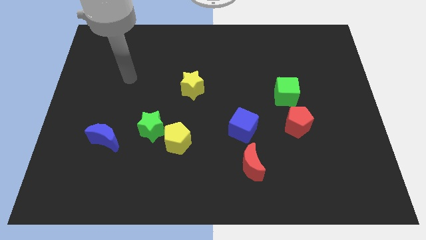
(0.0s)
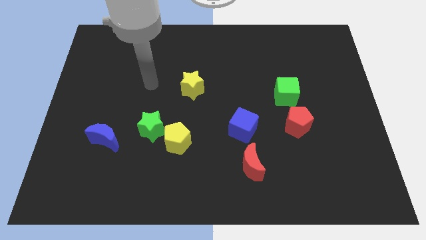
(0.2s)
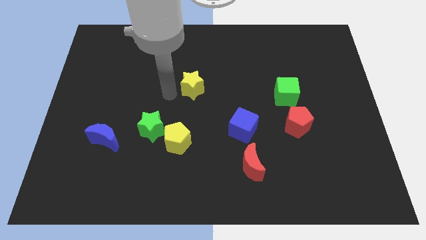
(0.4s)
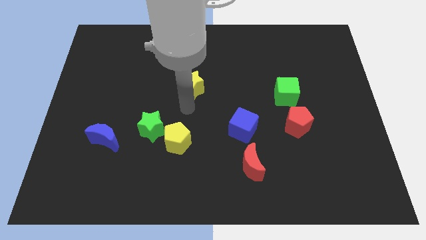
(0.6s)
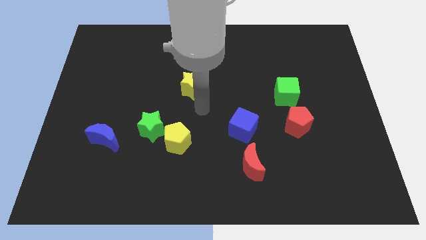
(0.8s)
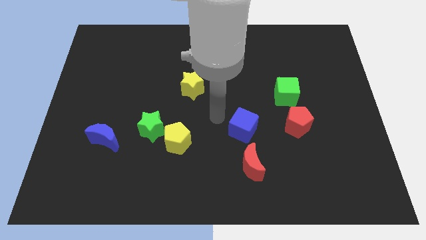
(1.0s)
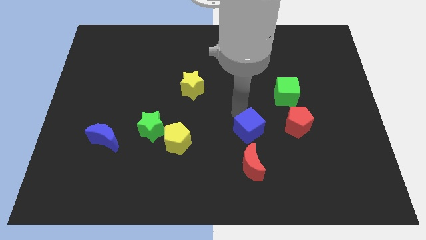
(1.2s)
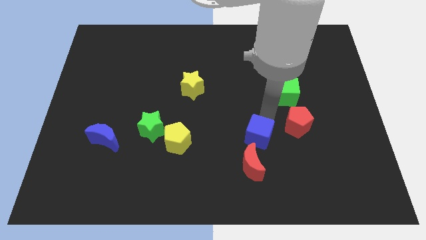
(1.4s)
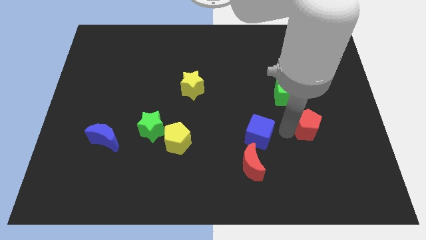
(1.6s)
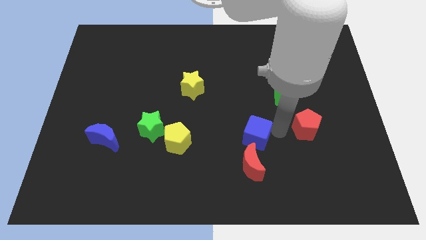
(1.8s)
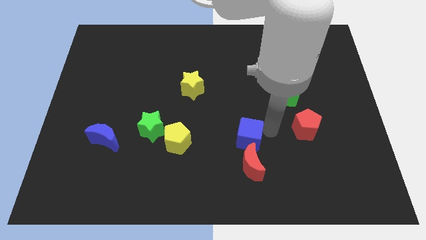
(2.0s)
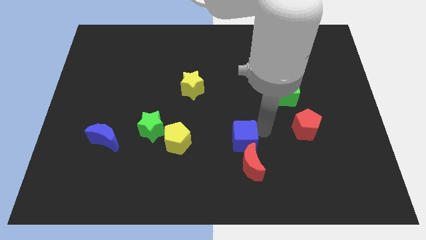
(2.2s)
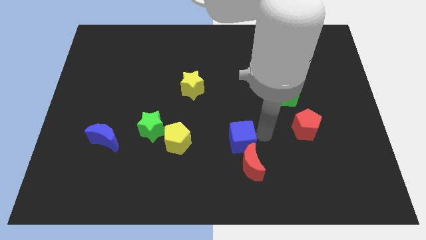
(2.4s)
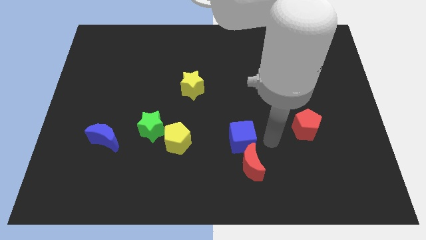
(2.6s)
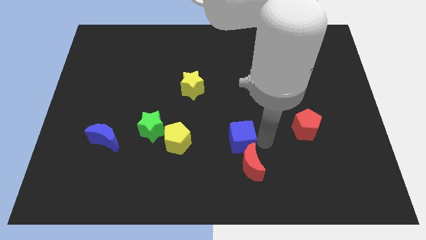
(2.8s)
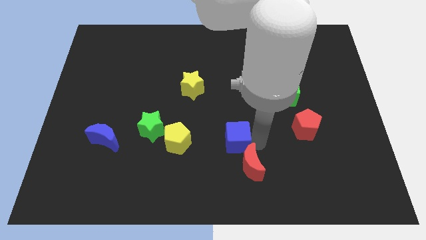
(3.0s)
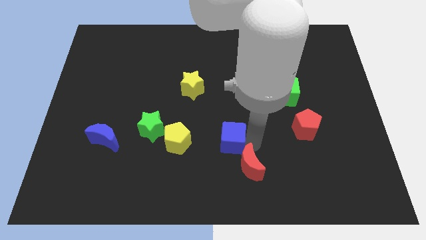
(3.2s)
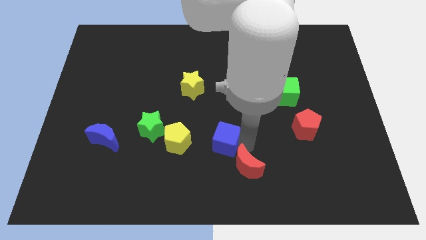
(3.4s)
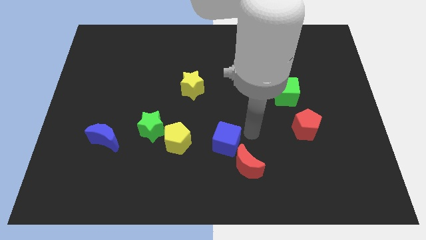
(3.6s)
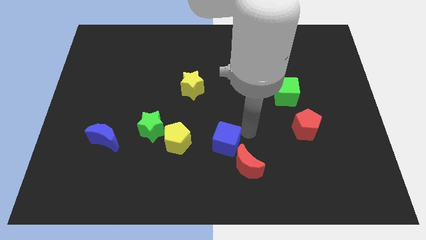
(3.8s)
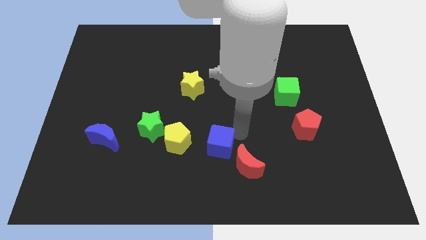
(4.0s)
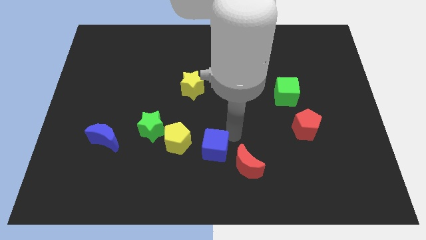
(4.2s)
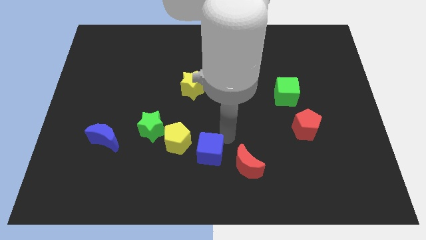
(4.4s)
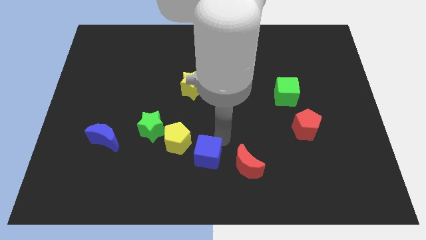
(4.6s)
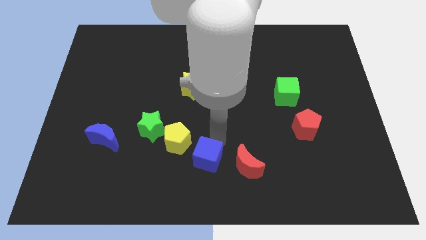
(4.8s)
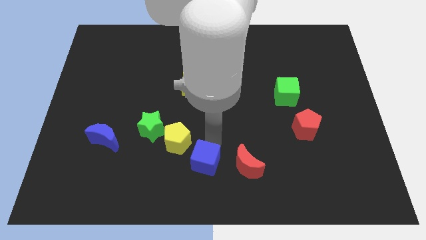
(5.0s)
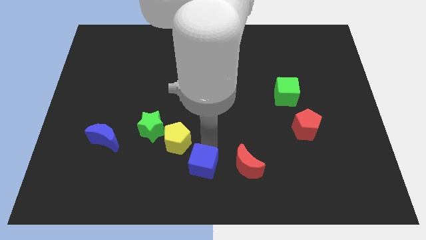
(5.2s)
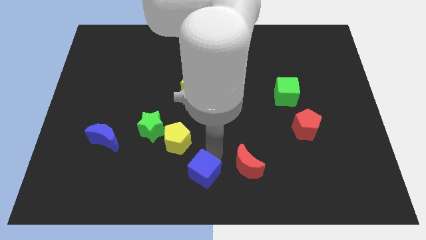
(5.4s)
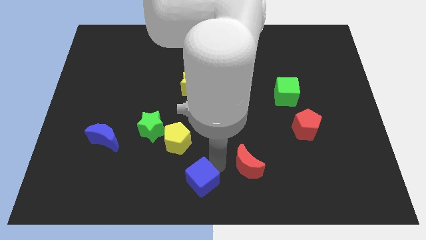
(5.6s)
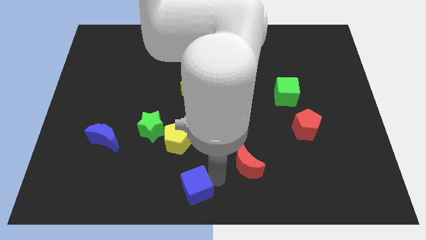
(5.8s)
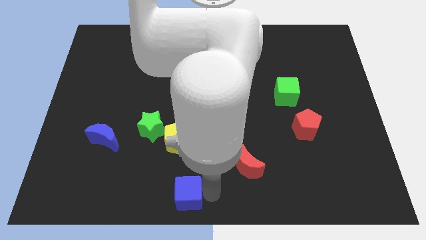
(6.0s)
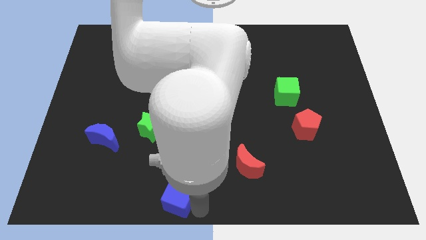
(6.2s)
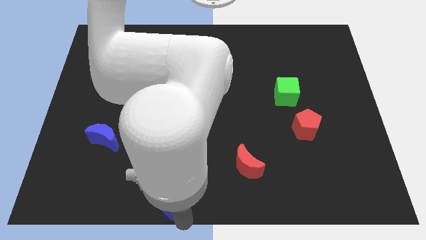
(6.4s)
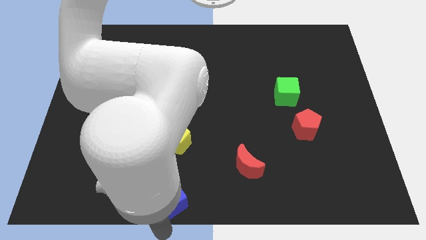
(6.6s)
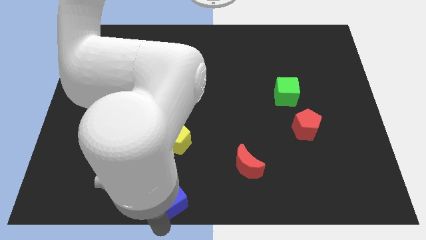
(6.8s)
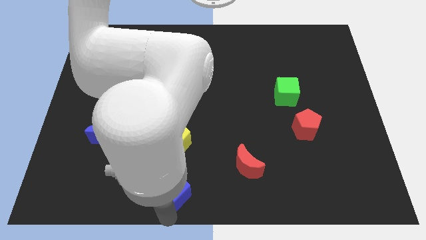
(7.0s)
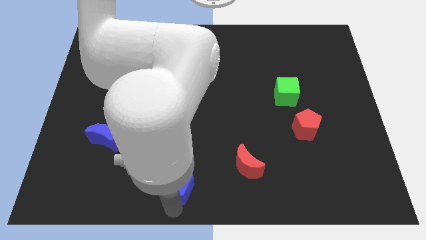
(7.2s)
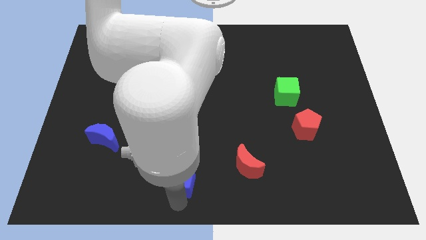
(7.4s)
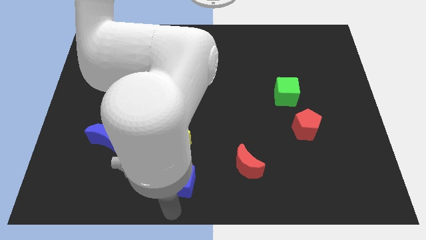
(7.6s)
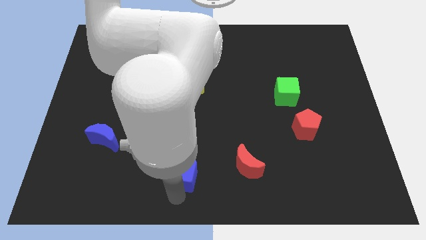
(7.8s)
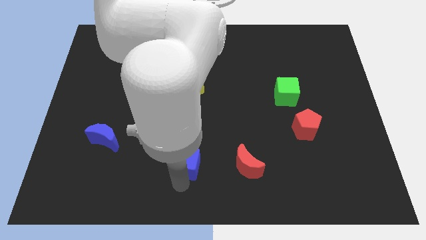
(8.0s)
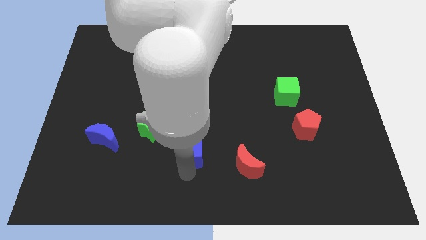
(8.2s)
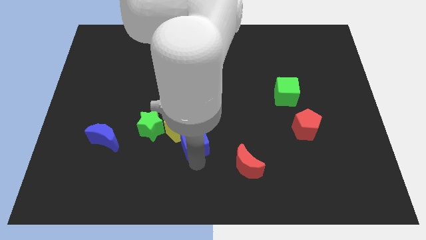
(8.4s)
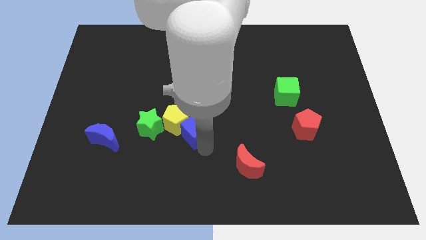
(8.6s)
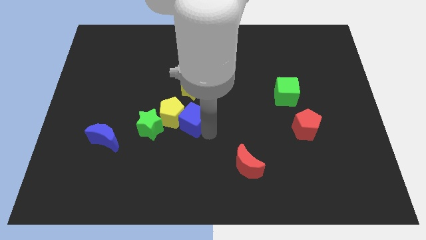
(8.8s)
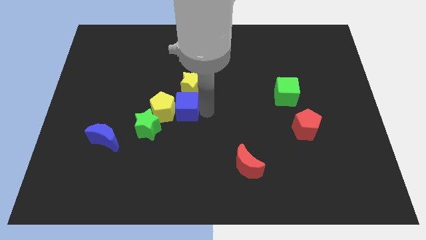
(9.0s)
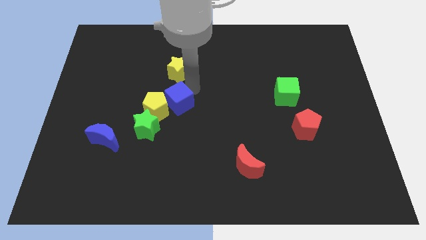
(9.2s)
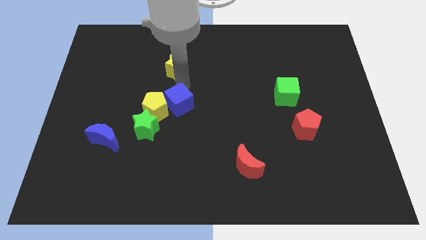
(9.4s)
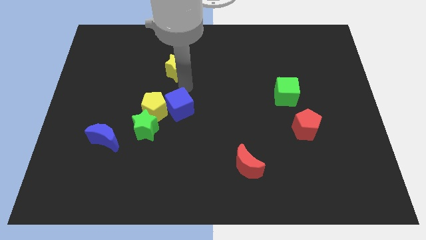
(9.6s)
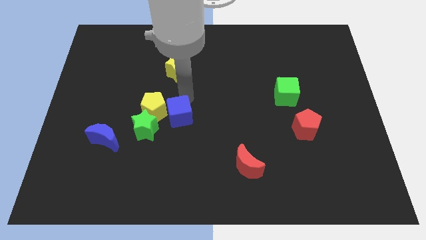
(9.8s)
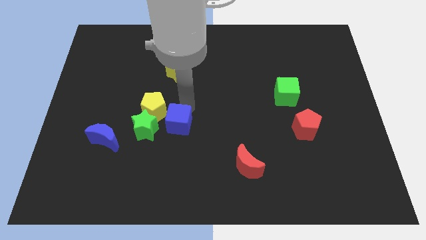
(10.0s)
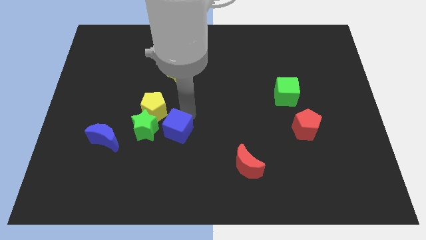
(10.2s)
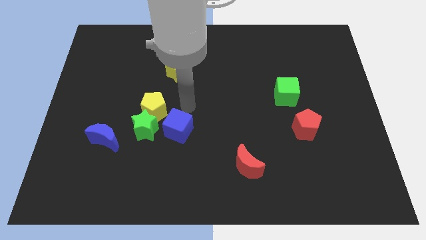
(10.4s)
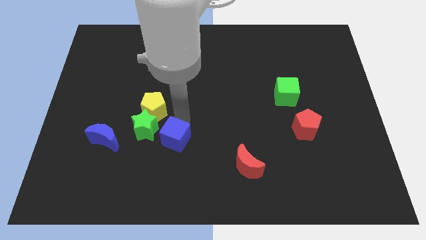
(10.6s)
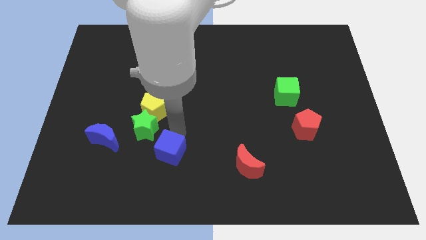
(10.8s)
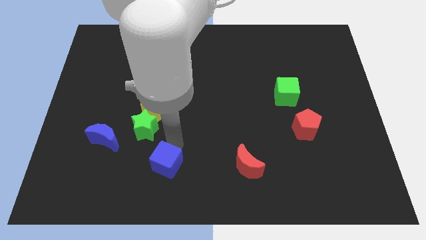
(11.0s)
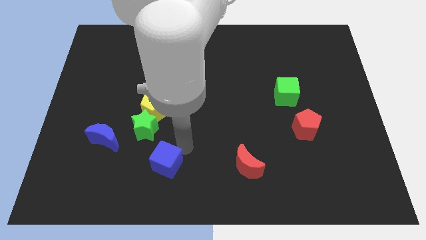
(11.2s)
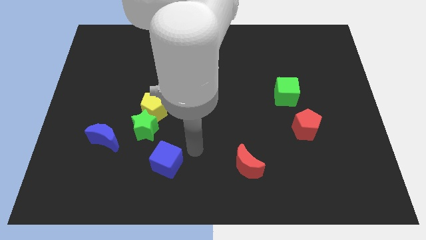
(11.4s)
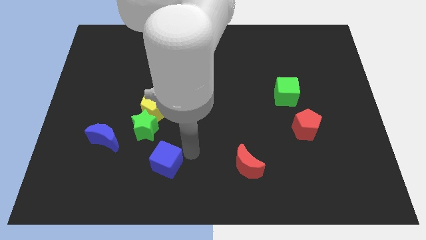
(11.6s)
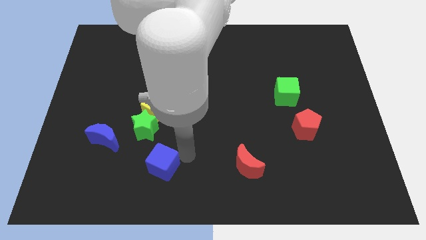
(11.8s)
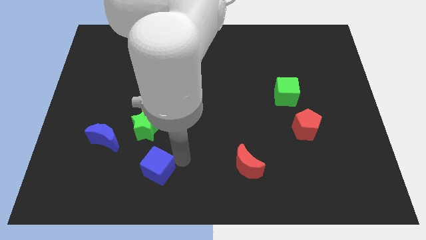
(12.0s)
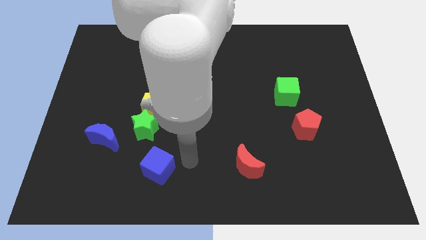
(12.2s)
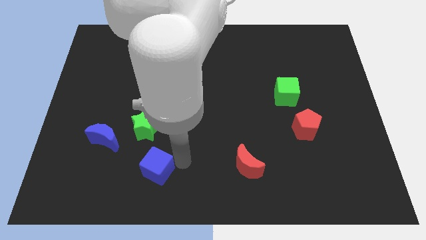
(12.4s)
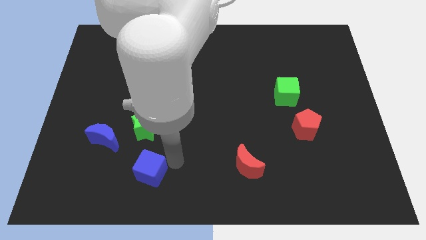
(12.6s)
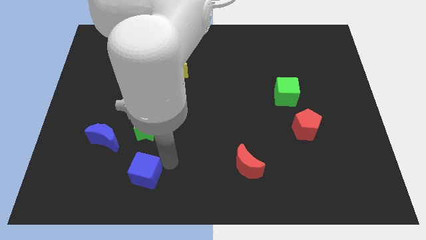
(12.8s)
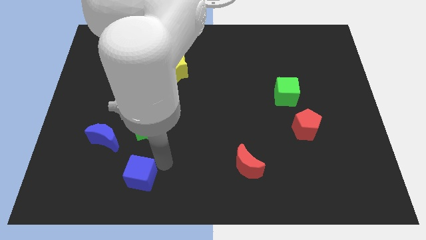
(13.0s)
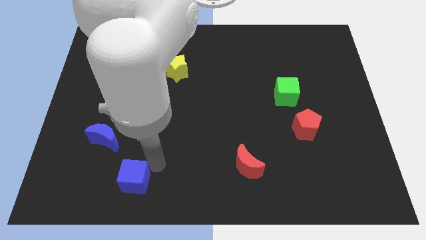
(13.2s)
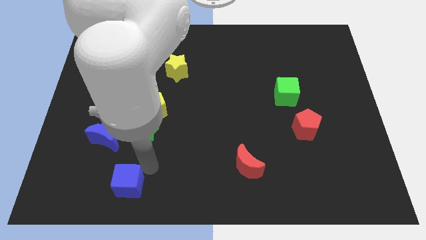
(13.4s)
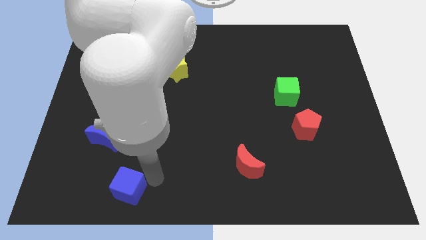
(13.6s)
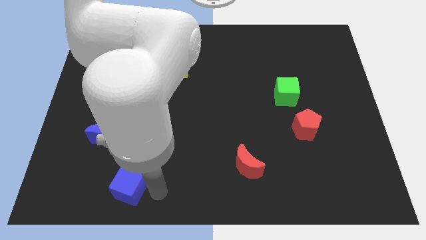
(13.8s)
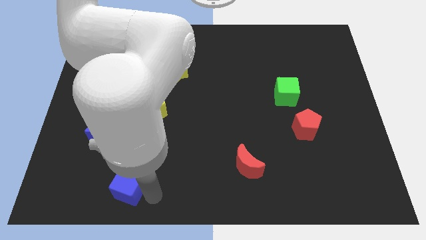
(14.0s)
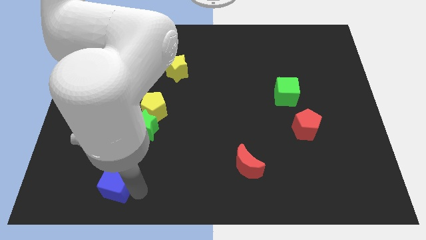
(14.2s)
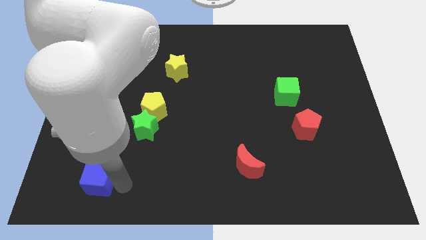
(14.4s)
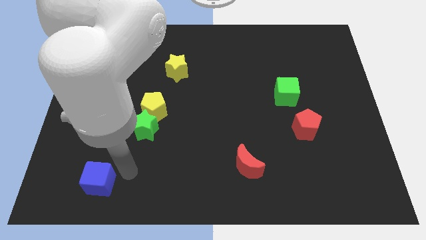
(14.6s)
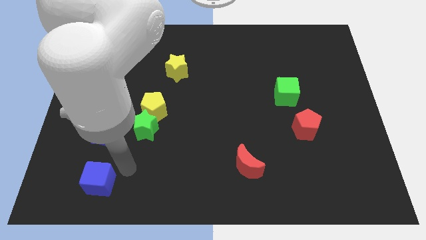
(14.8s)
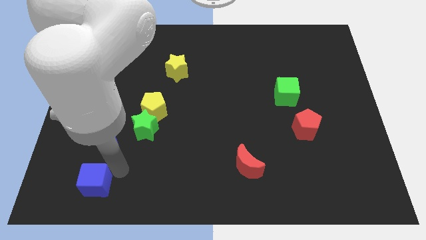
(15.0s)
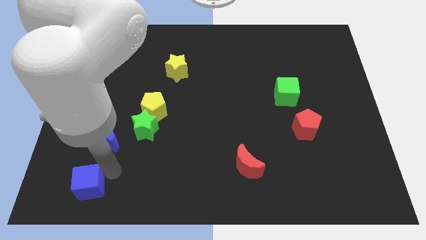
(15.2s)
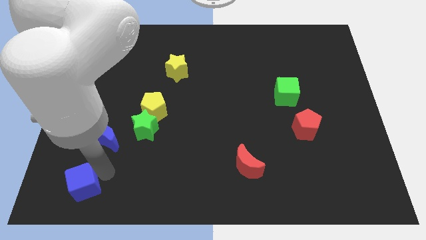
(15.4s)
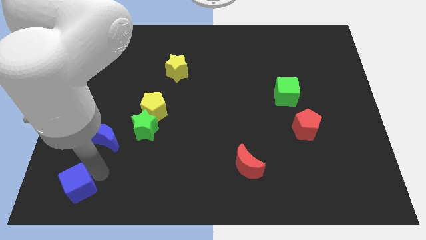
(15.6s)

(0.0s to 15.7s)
put the blue cube to the bottom left
